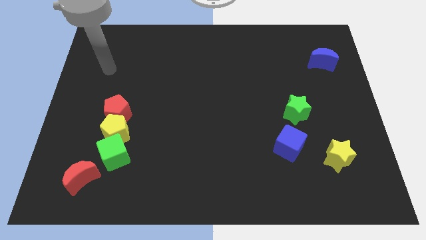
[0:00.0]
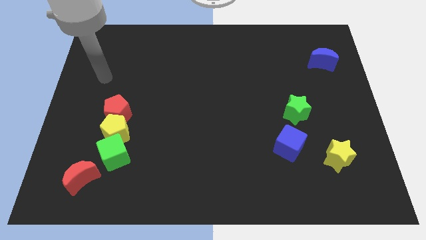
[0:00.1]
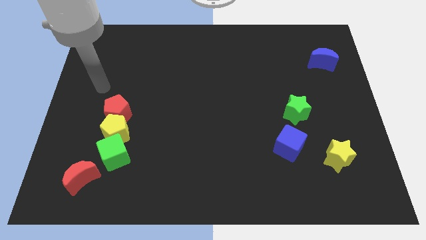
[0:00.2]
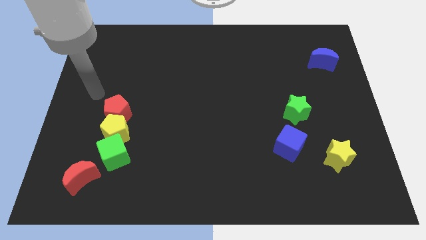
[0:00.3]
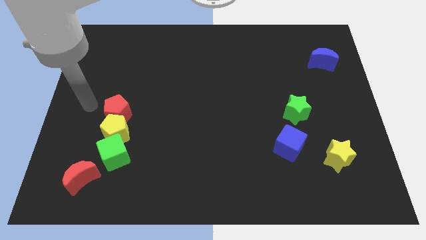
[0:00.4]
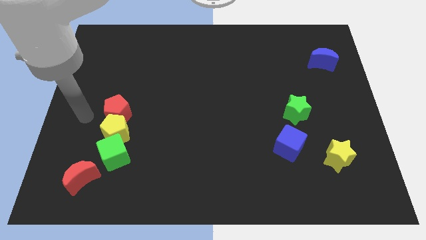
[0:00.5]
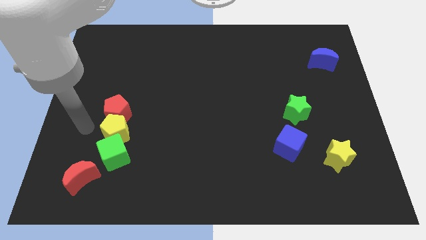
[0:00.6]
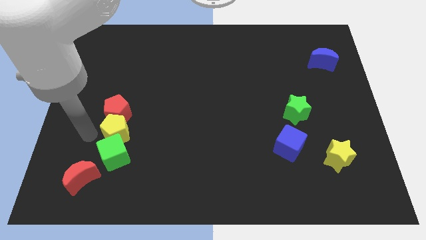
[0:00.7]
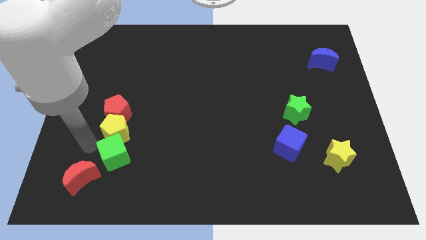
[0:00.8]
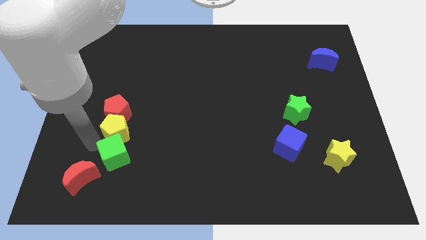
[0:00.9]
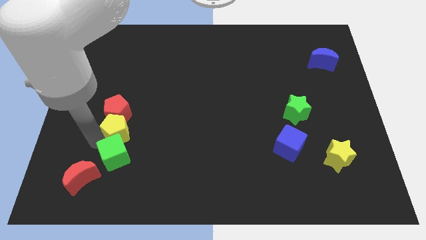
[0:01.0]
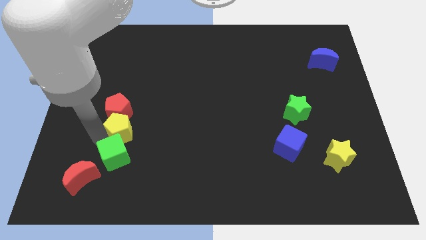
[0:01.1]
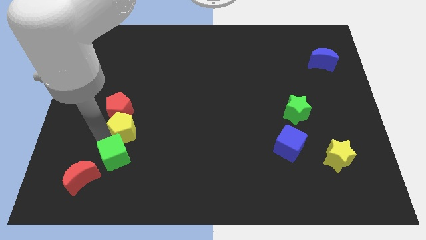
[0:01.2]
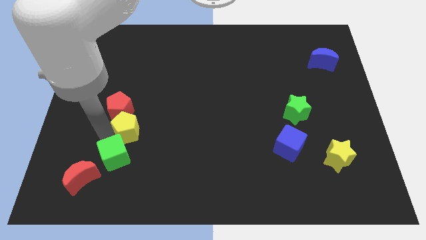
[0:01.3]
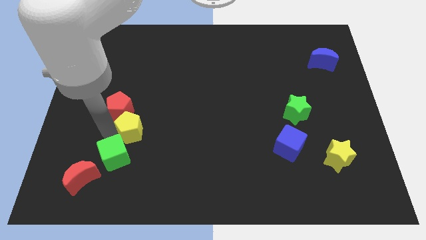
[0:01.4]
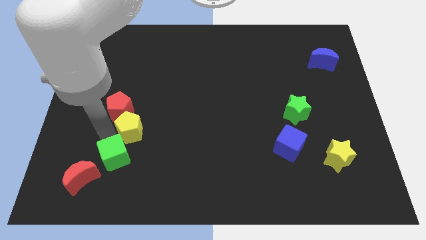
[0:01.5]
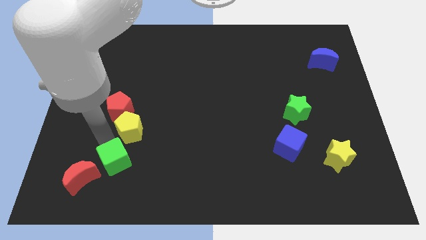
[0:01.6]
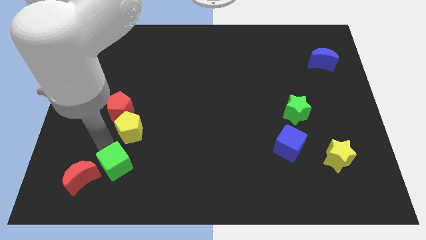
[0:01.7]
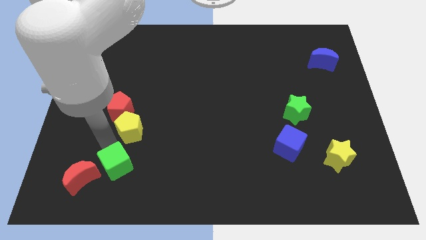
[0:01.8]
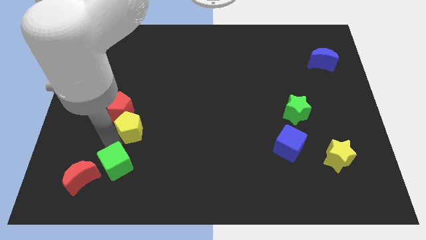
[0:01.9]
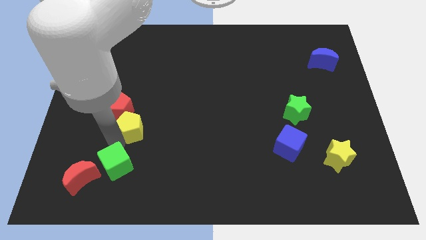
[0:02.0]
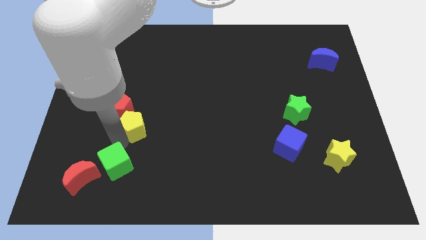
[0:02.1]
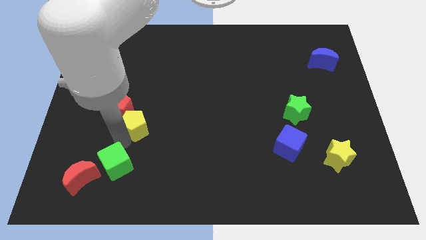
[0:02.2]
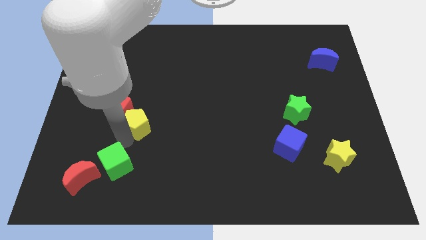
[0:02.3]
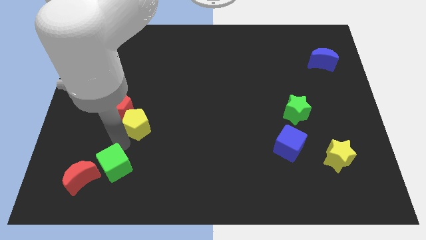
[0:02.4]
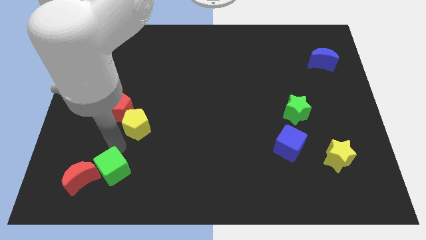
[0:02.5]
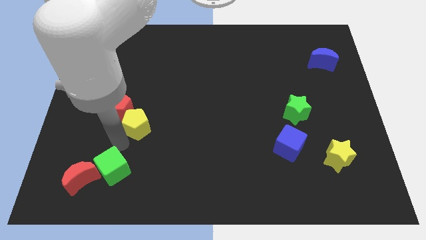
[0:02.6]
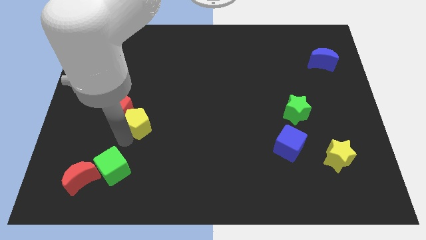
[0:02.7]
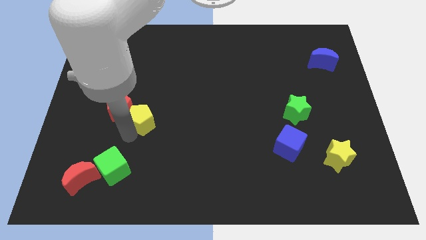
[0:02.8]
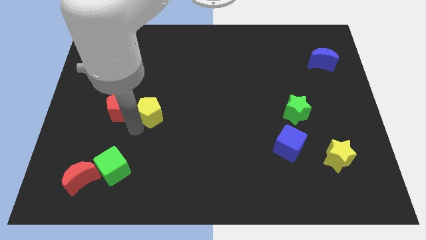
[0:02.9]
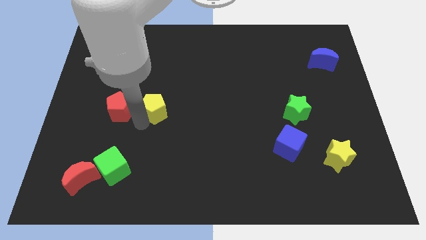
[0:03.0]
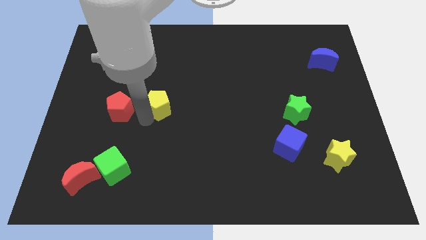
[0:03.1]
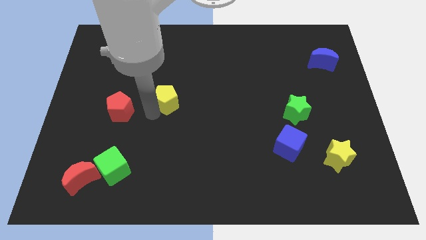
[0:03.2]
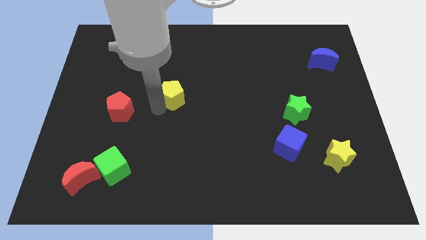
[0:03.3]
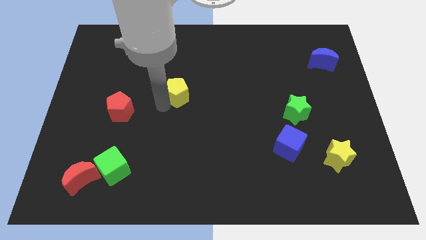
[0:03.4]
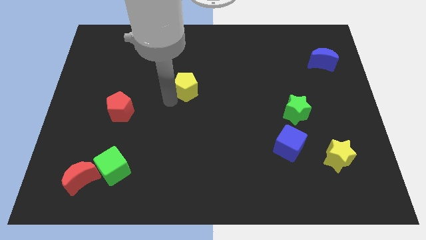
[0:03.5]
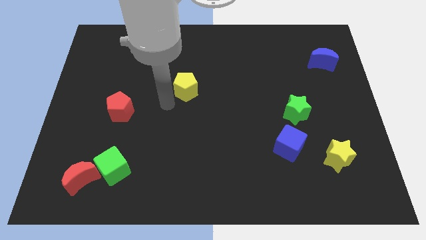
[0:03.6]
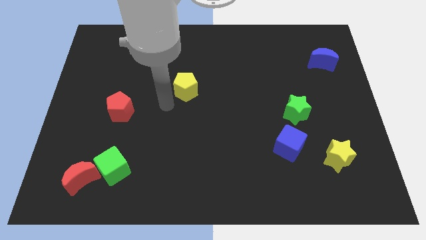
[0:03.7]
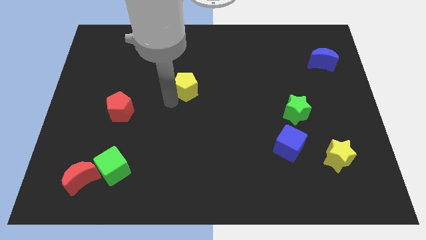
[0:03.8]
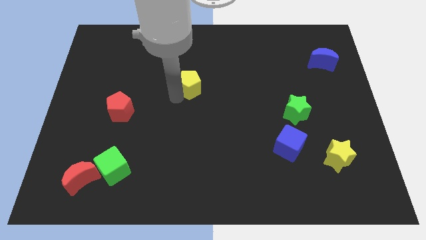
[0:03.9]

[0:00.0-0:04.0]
push the yellow pentagon diagonally upwards and to the right

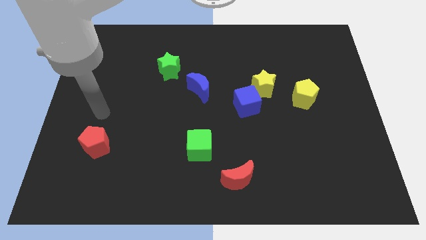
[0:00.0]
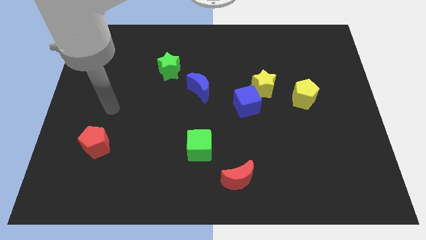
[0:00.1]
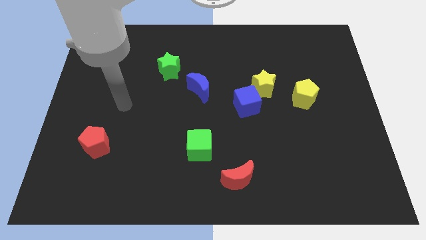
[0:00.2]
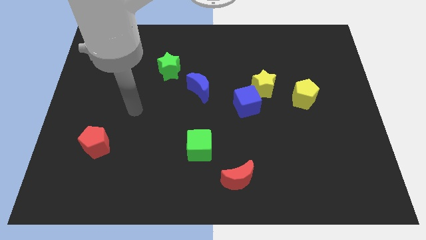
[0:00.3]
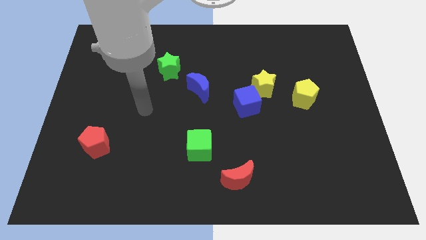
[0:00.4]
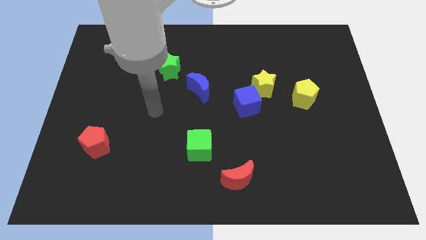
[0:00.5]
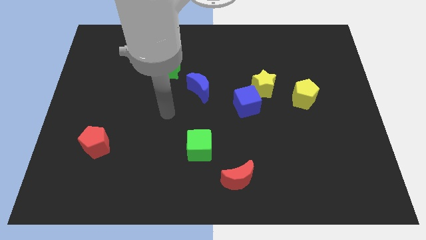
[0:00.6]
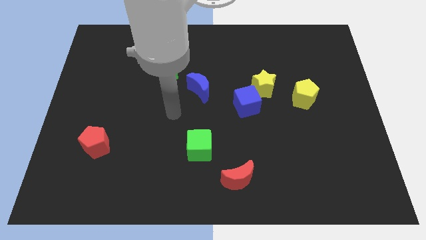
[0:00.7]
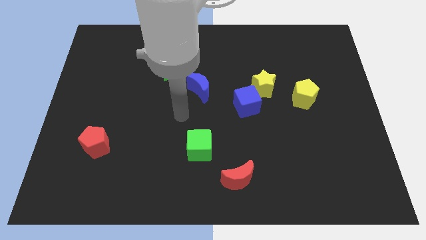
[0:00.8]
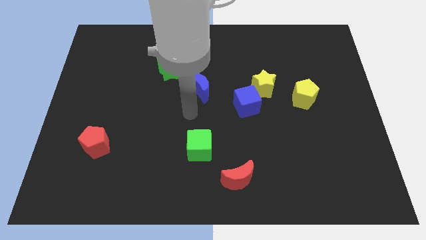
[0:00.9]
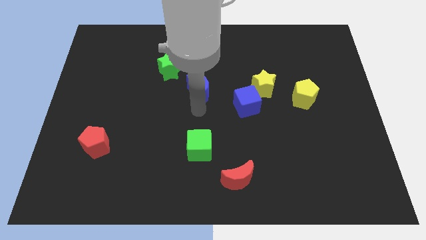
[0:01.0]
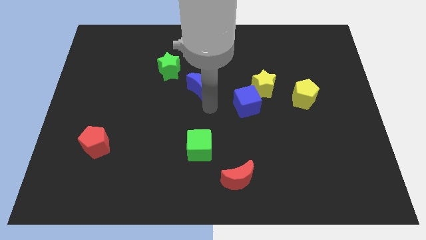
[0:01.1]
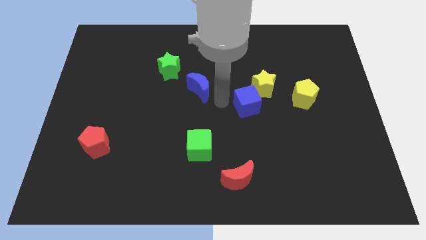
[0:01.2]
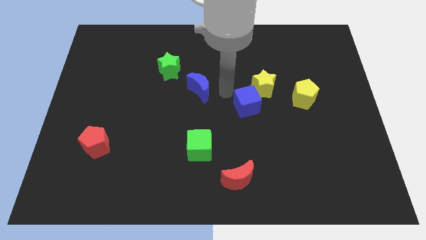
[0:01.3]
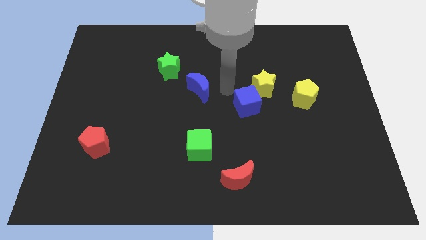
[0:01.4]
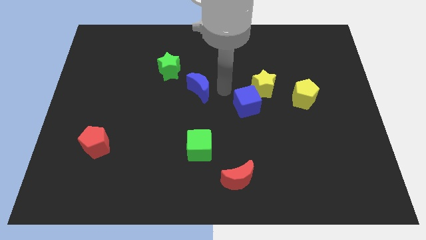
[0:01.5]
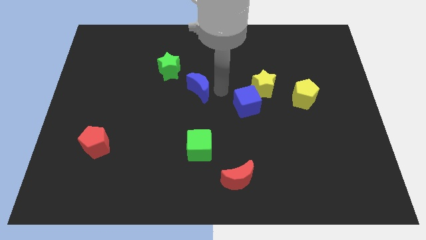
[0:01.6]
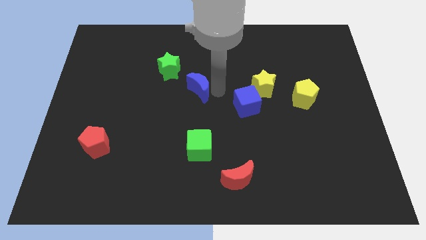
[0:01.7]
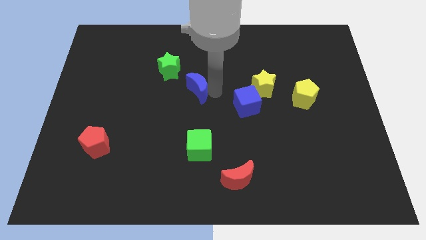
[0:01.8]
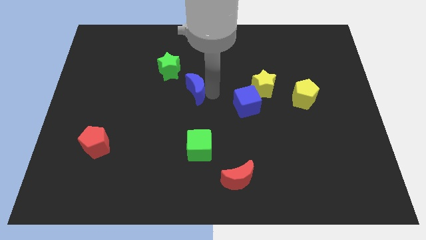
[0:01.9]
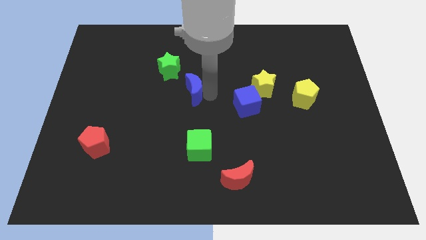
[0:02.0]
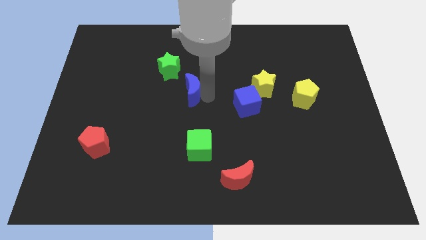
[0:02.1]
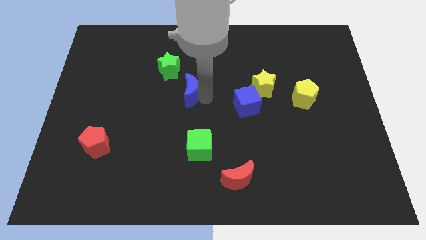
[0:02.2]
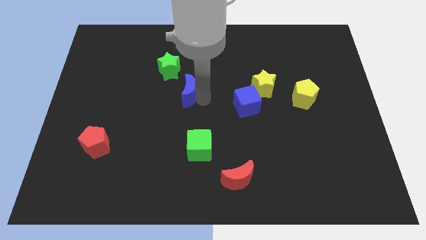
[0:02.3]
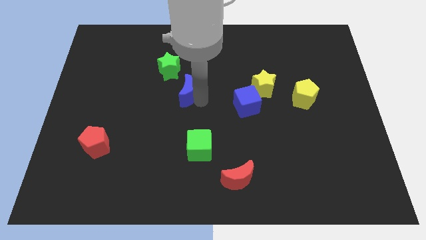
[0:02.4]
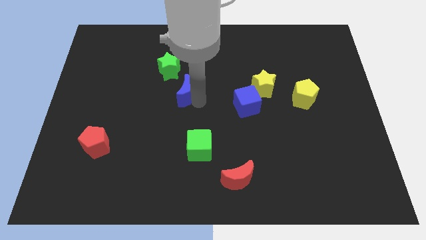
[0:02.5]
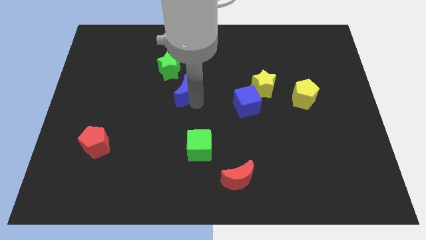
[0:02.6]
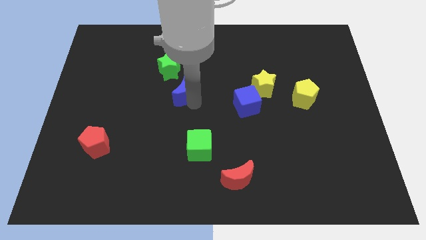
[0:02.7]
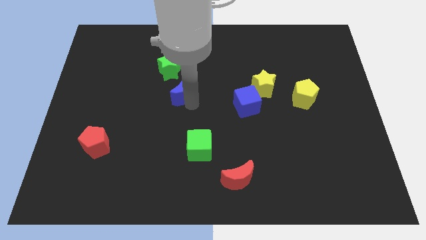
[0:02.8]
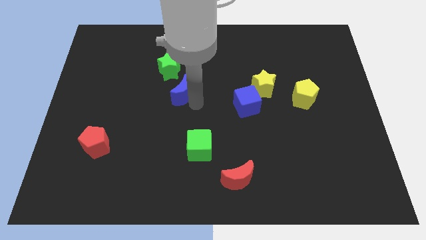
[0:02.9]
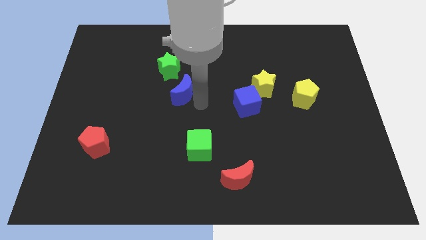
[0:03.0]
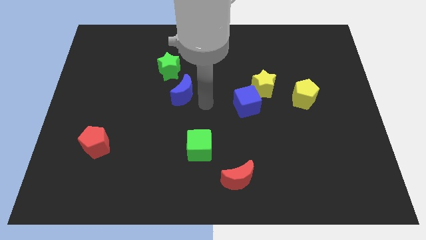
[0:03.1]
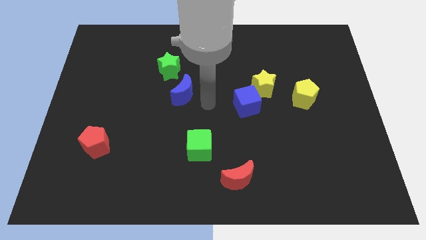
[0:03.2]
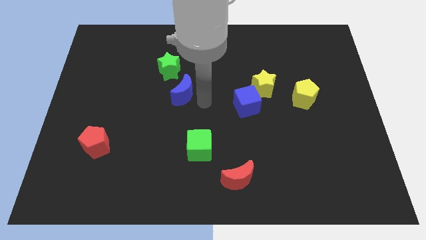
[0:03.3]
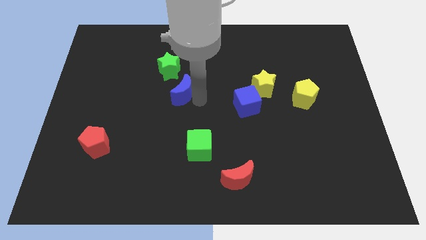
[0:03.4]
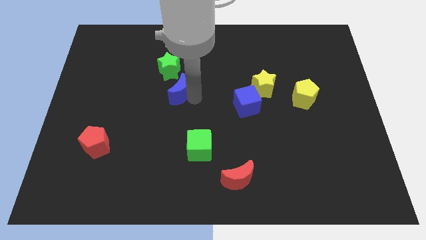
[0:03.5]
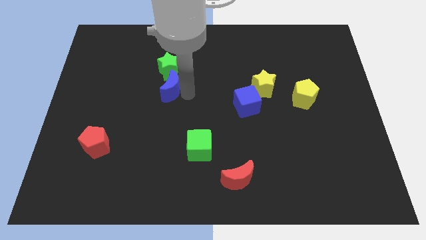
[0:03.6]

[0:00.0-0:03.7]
slightly slide the blue moon left

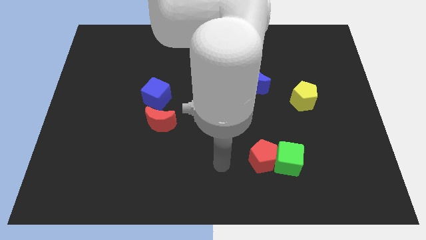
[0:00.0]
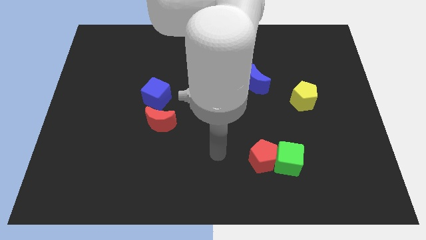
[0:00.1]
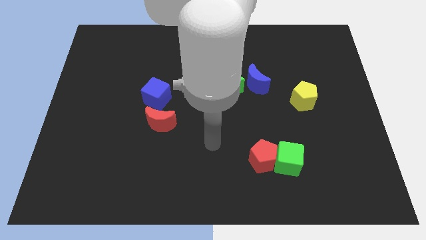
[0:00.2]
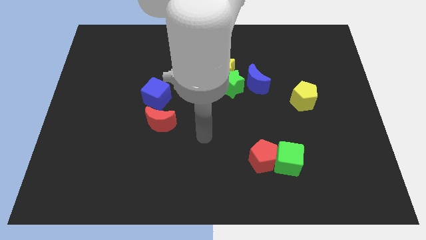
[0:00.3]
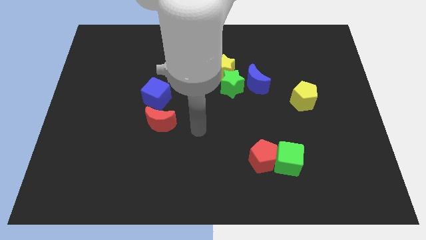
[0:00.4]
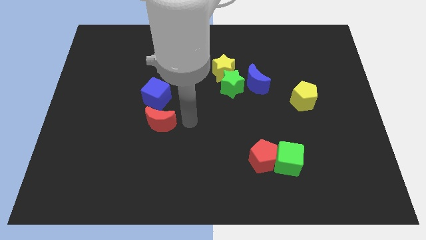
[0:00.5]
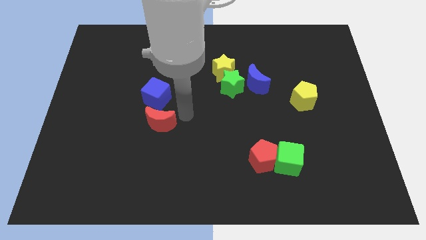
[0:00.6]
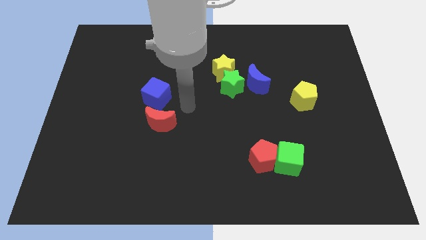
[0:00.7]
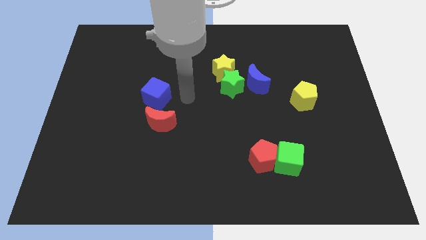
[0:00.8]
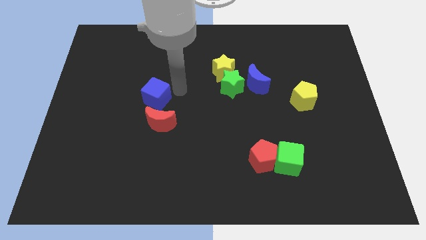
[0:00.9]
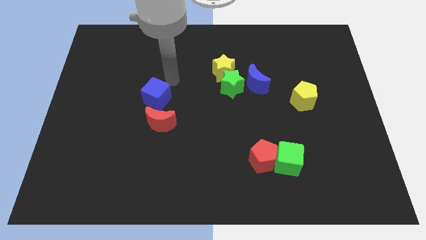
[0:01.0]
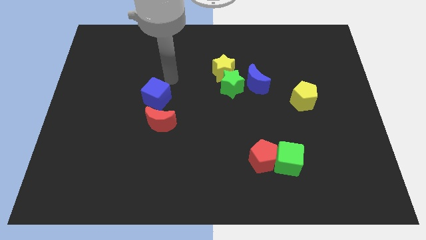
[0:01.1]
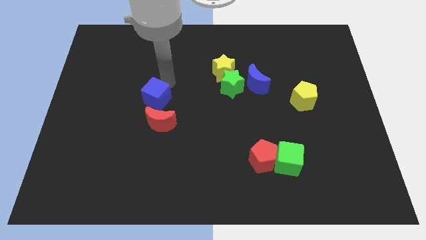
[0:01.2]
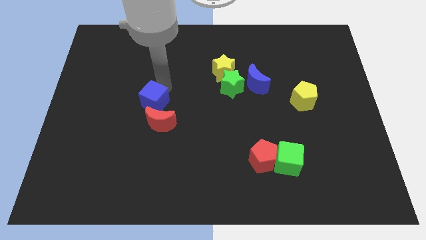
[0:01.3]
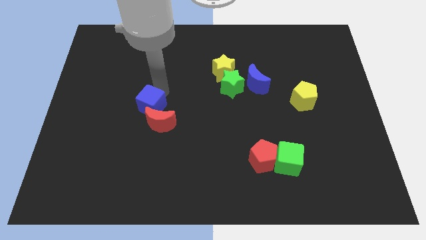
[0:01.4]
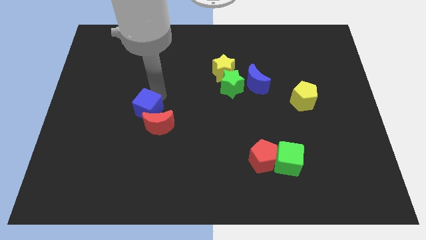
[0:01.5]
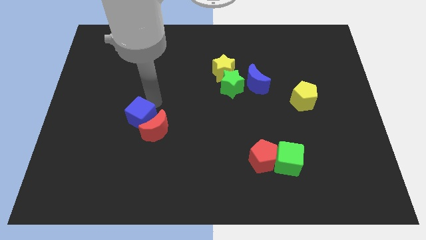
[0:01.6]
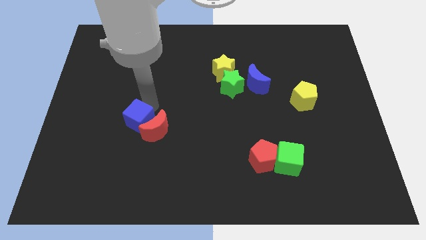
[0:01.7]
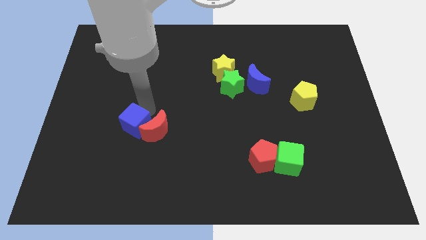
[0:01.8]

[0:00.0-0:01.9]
slightly move the blue cube down
